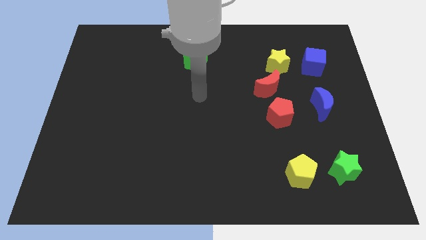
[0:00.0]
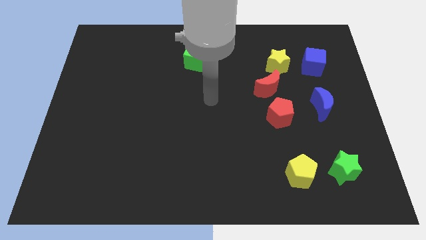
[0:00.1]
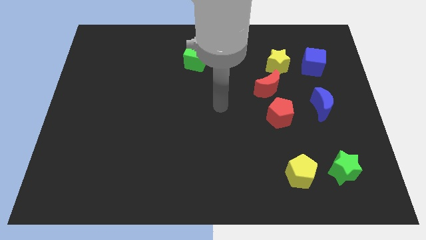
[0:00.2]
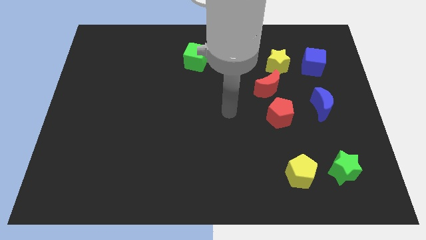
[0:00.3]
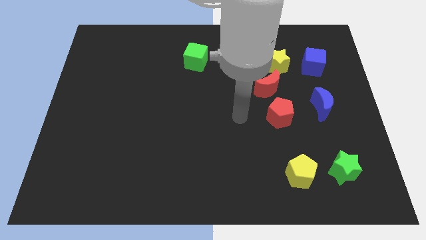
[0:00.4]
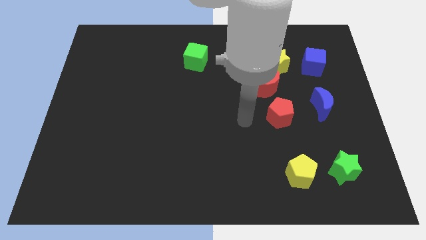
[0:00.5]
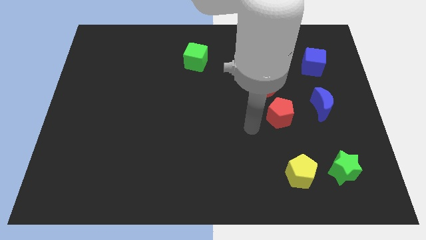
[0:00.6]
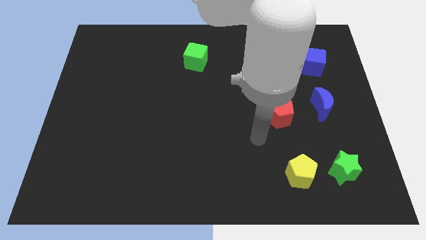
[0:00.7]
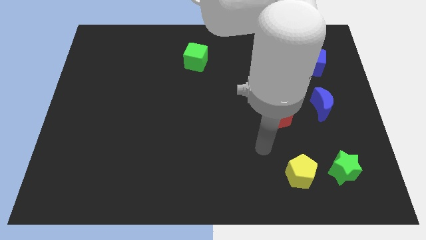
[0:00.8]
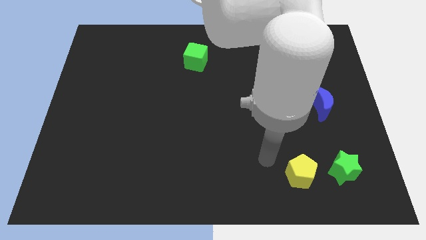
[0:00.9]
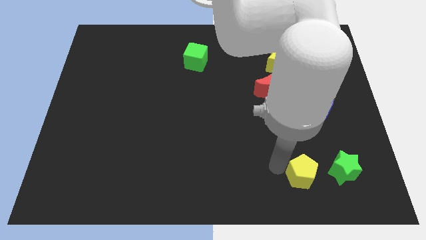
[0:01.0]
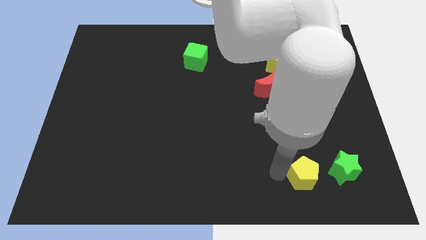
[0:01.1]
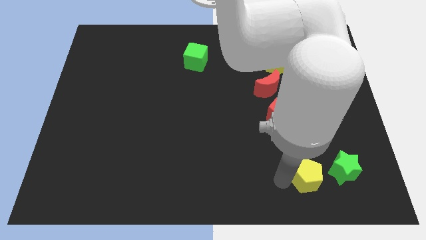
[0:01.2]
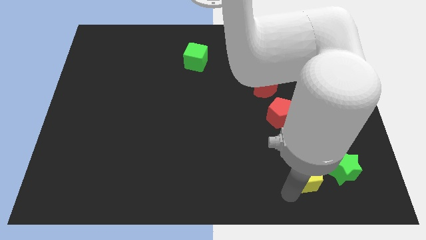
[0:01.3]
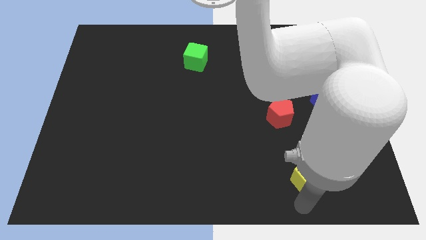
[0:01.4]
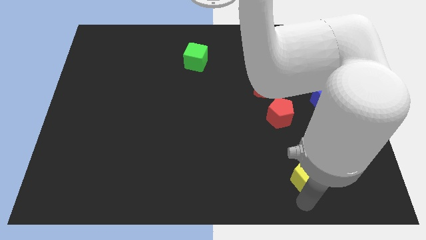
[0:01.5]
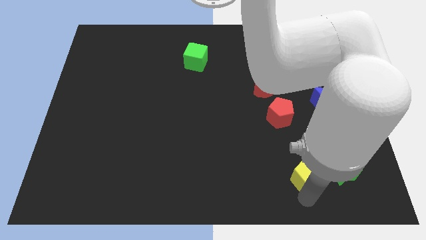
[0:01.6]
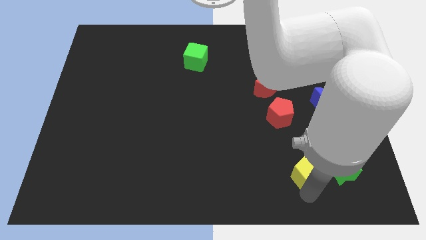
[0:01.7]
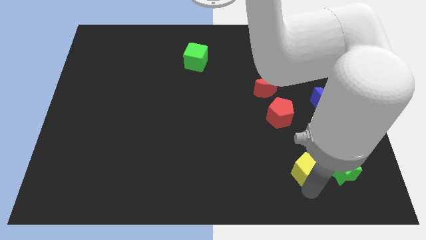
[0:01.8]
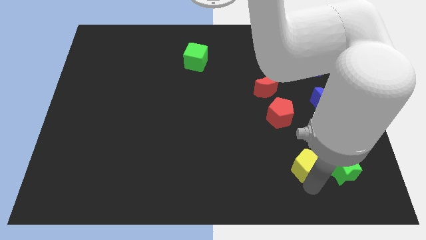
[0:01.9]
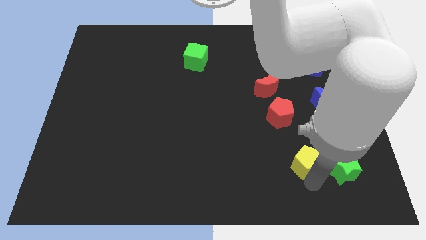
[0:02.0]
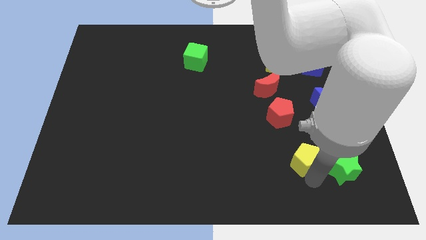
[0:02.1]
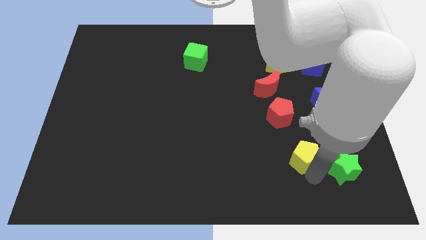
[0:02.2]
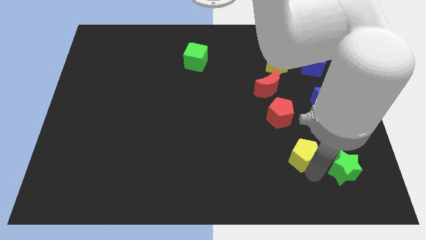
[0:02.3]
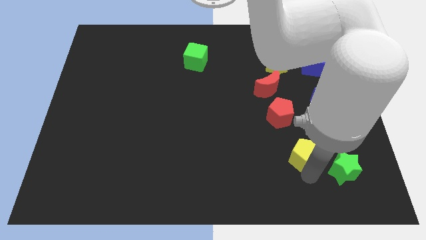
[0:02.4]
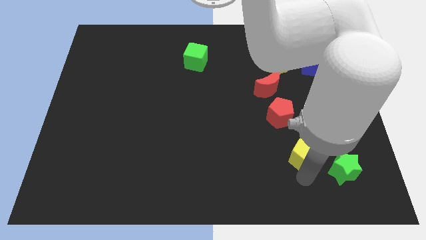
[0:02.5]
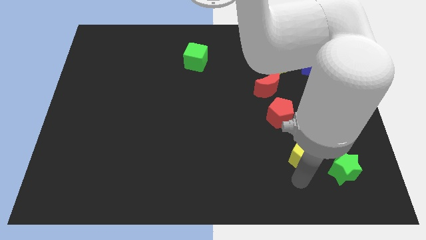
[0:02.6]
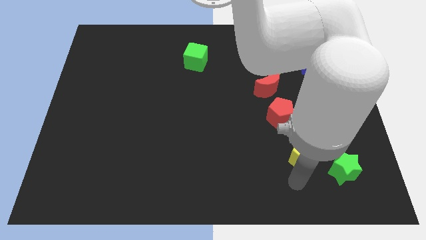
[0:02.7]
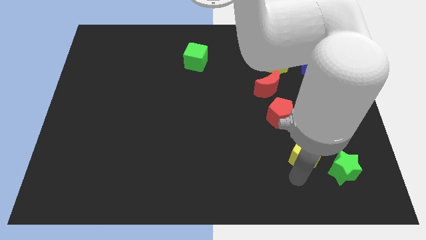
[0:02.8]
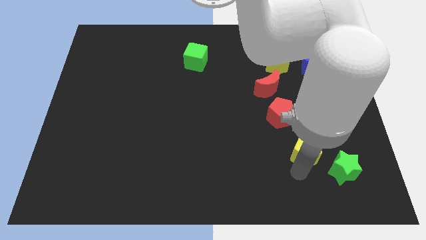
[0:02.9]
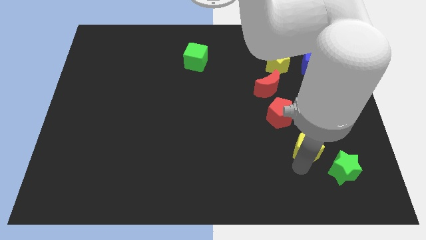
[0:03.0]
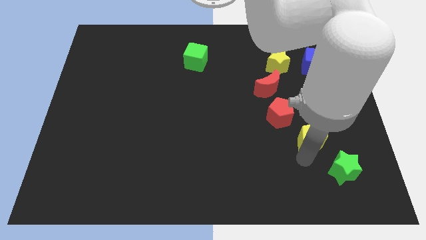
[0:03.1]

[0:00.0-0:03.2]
slide the yellow pentagon a bit up

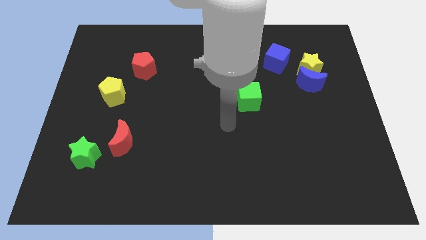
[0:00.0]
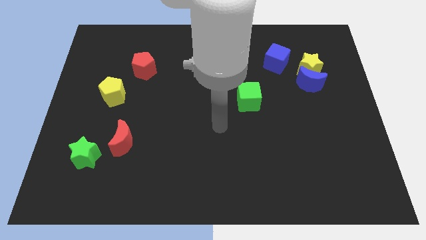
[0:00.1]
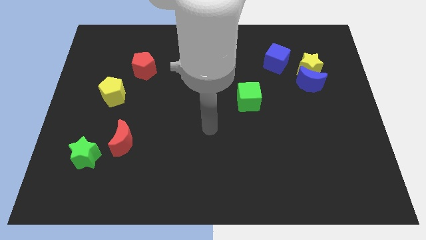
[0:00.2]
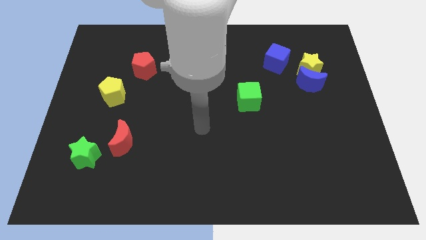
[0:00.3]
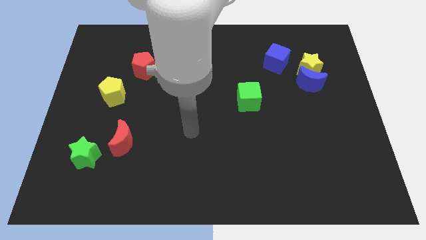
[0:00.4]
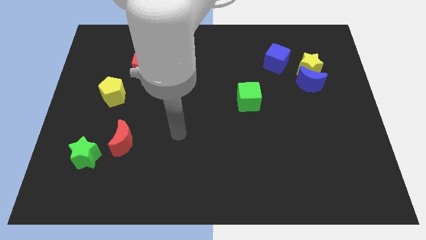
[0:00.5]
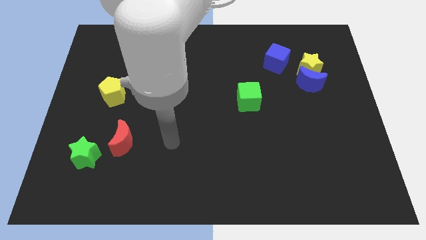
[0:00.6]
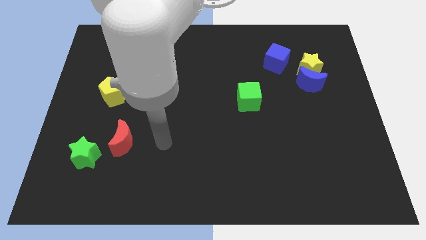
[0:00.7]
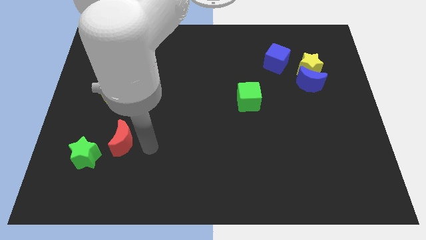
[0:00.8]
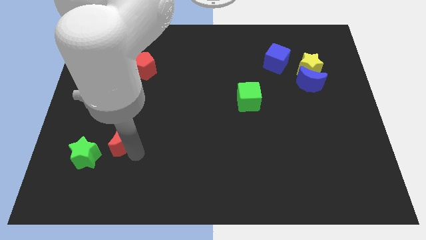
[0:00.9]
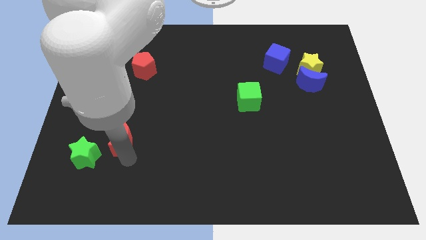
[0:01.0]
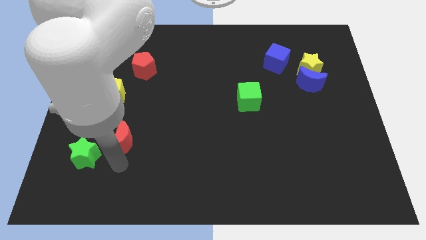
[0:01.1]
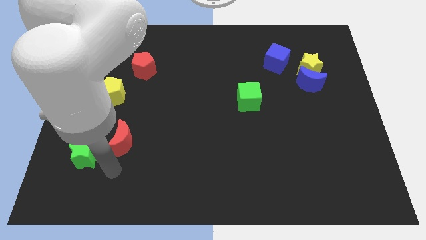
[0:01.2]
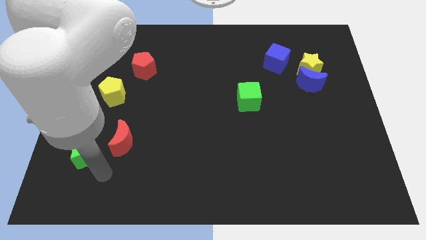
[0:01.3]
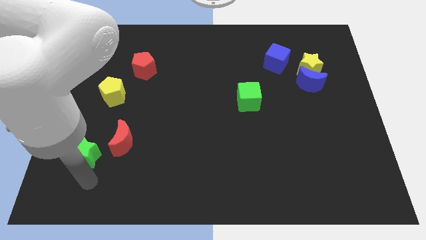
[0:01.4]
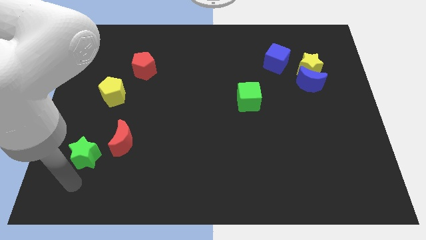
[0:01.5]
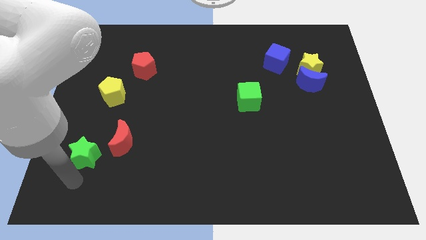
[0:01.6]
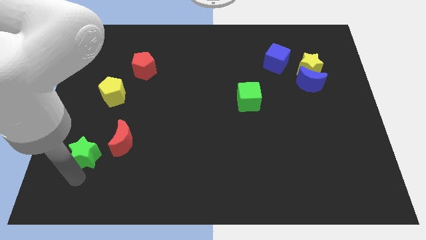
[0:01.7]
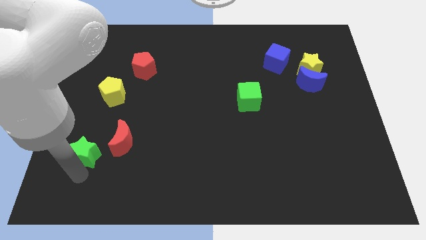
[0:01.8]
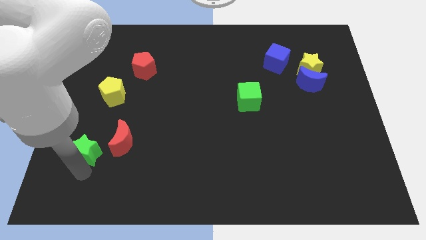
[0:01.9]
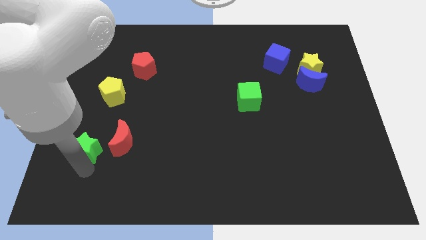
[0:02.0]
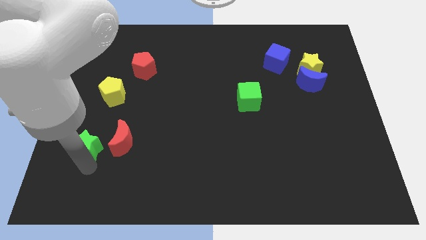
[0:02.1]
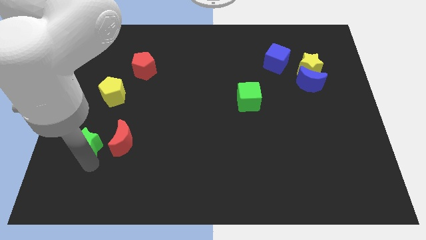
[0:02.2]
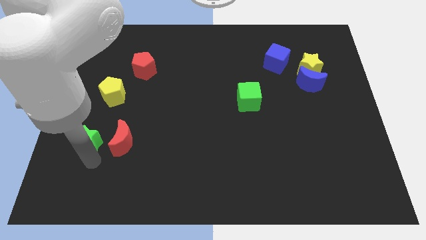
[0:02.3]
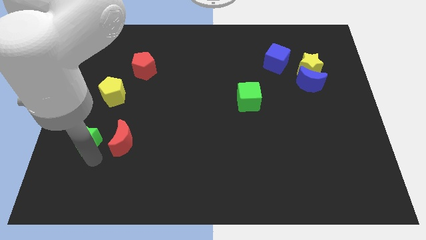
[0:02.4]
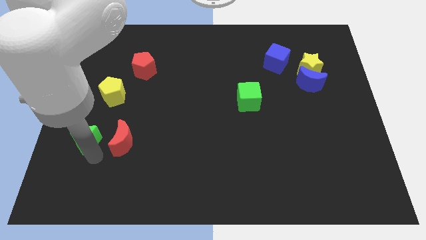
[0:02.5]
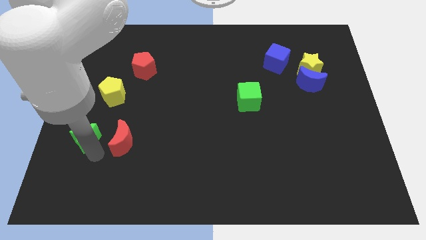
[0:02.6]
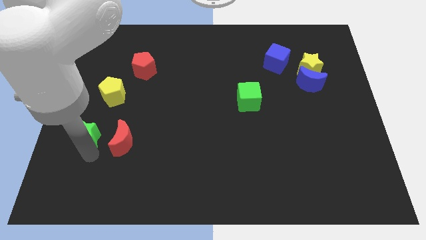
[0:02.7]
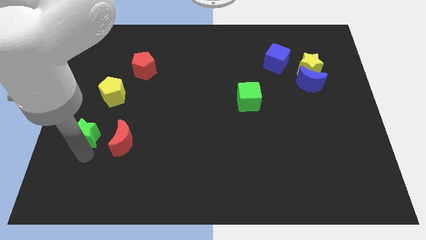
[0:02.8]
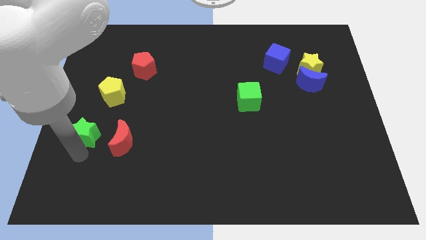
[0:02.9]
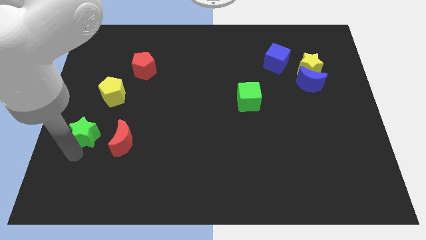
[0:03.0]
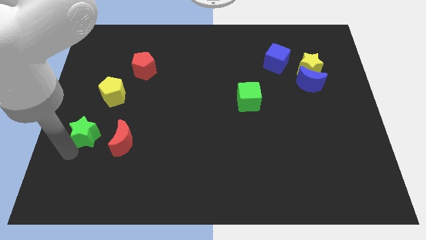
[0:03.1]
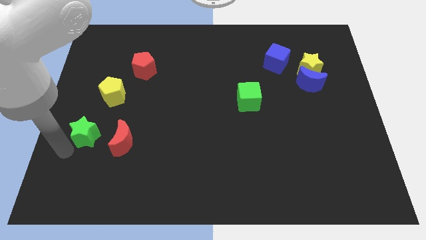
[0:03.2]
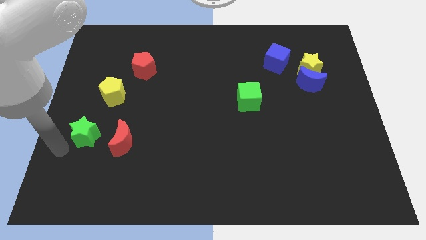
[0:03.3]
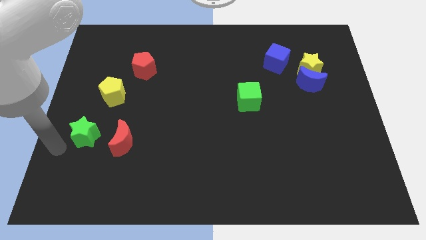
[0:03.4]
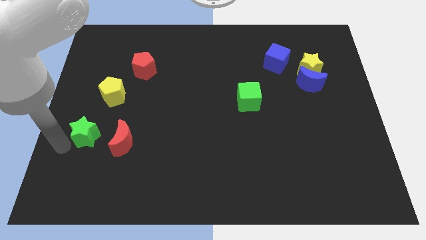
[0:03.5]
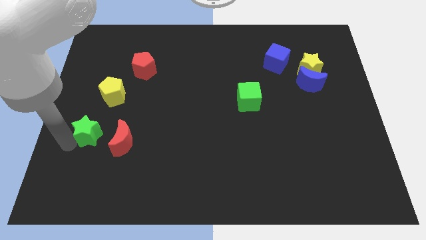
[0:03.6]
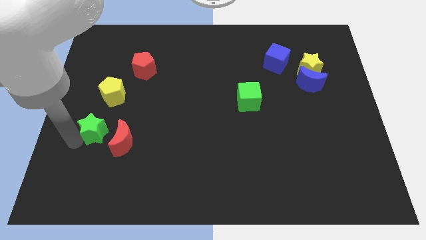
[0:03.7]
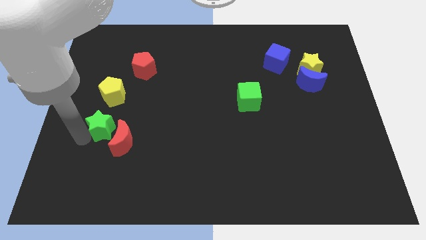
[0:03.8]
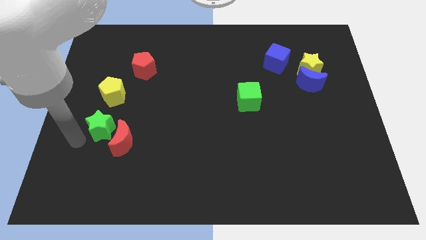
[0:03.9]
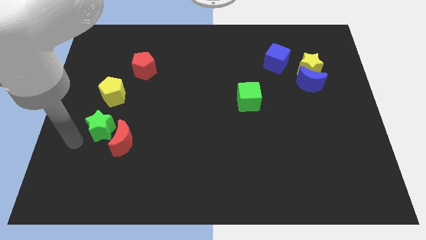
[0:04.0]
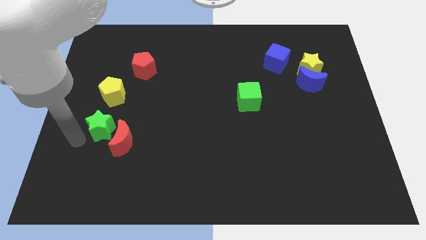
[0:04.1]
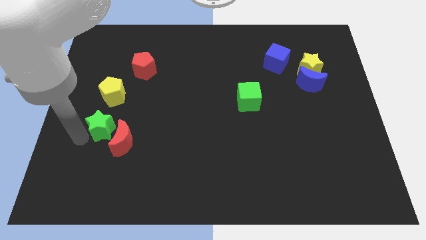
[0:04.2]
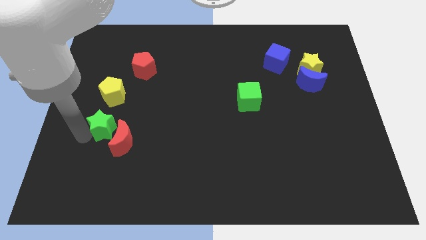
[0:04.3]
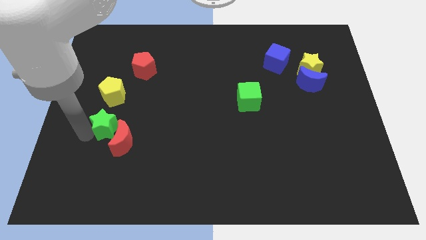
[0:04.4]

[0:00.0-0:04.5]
move the green star somewhat up and then right
